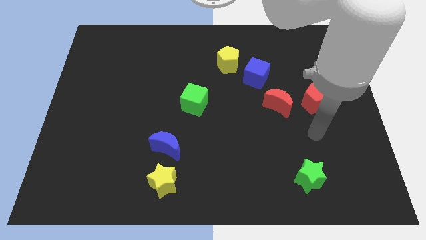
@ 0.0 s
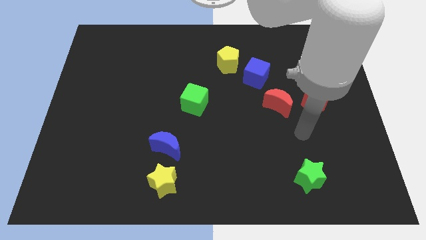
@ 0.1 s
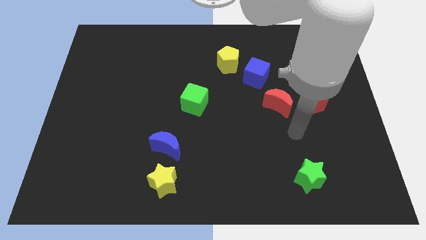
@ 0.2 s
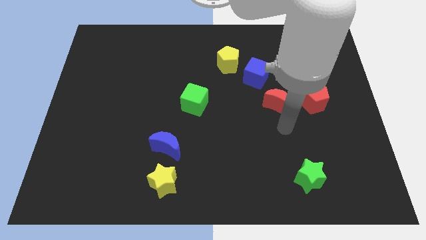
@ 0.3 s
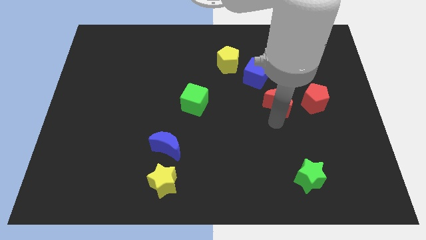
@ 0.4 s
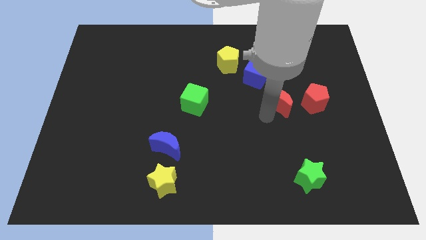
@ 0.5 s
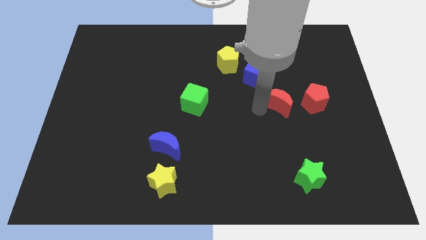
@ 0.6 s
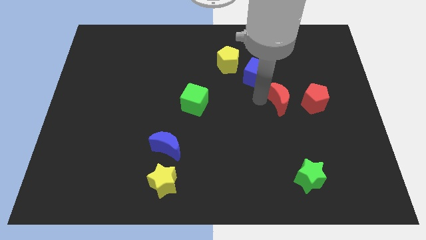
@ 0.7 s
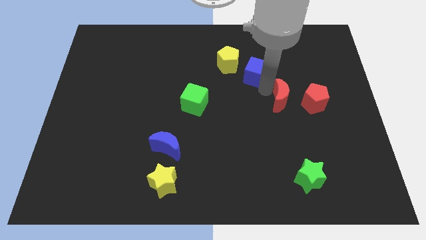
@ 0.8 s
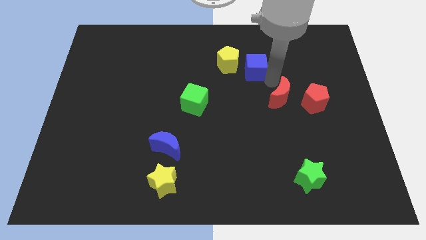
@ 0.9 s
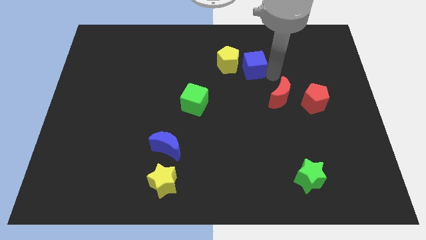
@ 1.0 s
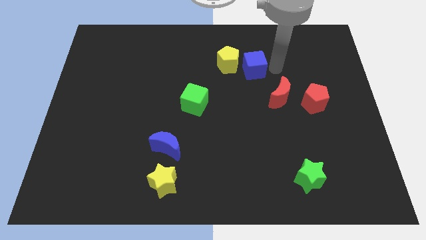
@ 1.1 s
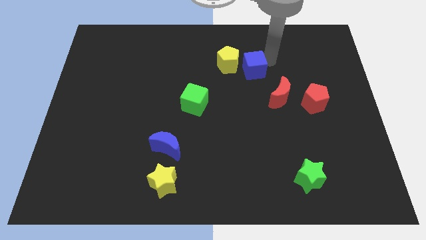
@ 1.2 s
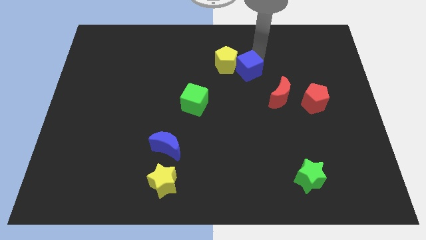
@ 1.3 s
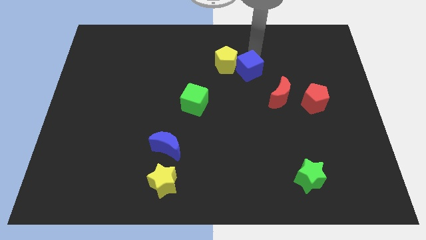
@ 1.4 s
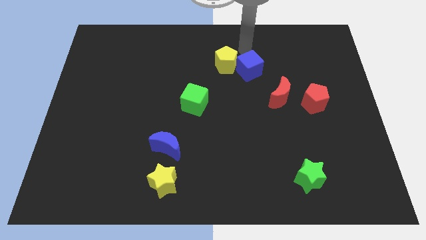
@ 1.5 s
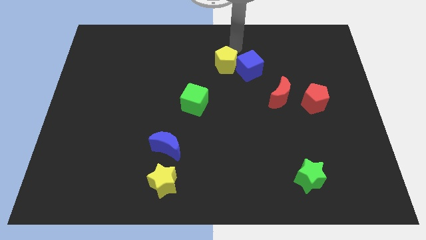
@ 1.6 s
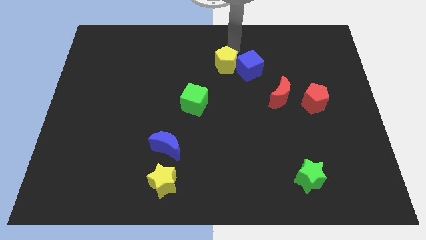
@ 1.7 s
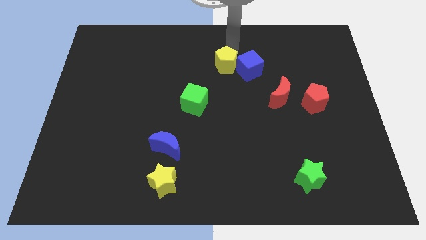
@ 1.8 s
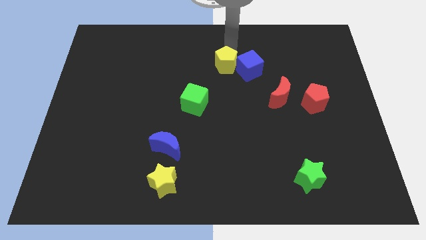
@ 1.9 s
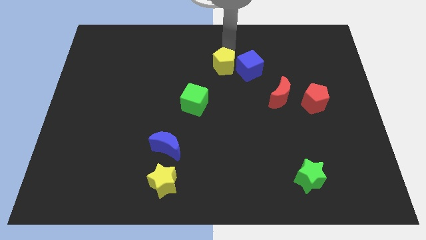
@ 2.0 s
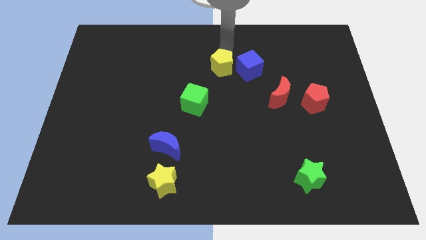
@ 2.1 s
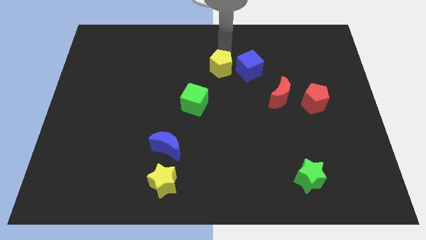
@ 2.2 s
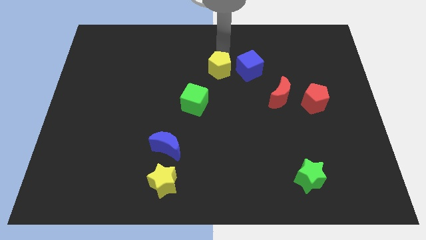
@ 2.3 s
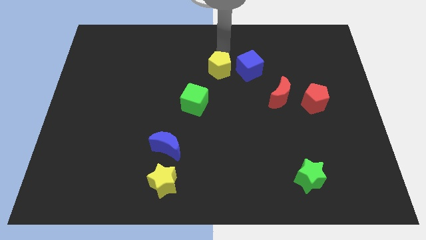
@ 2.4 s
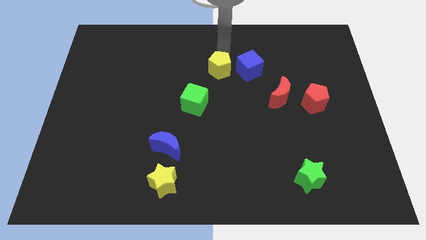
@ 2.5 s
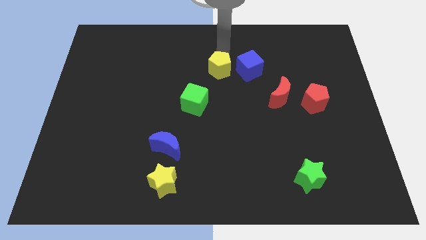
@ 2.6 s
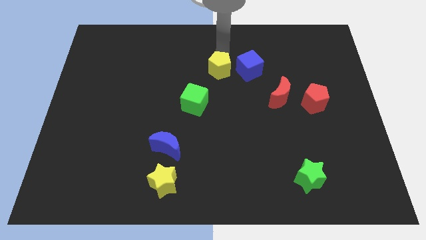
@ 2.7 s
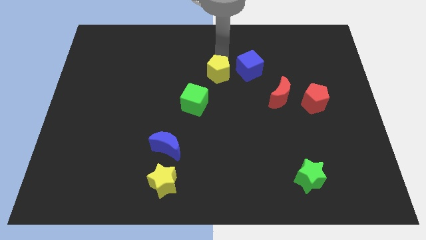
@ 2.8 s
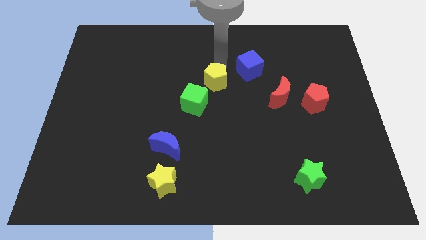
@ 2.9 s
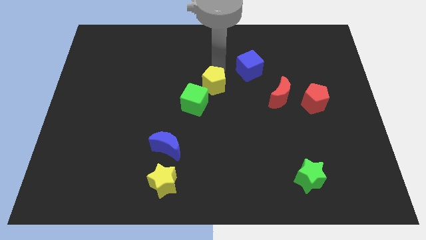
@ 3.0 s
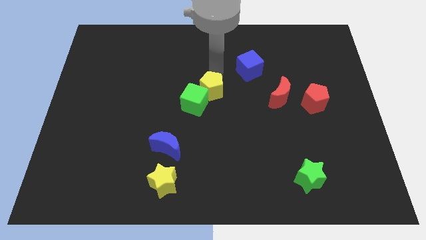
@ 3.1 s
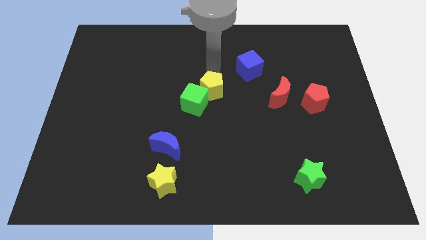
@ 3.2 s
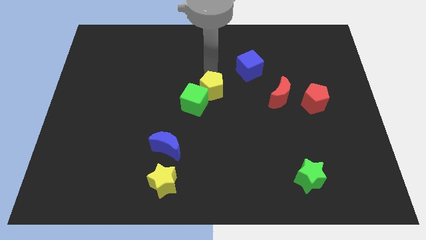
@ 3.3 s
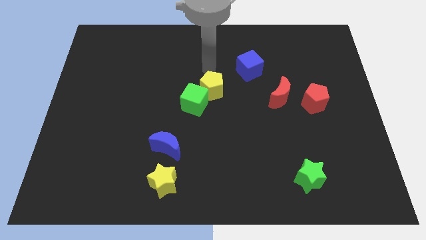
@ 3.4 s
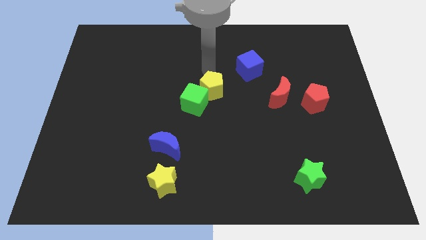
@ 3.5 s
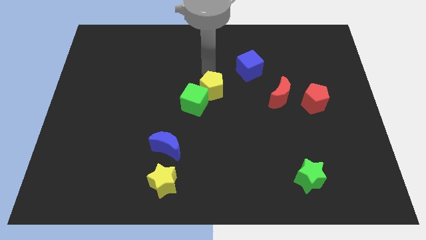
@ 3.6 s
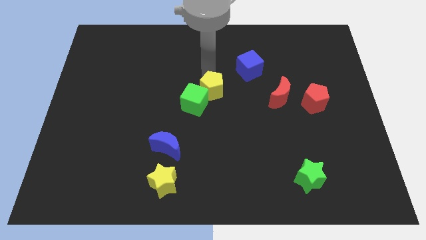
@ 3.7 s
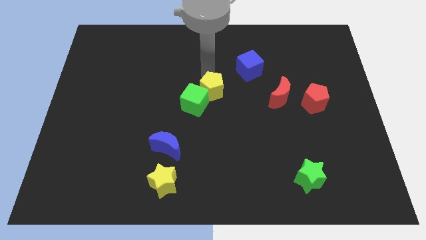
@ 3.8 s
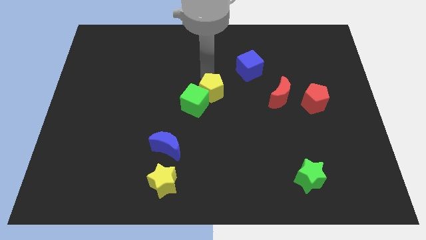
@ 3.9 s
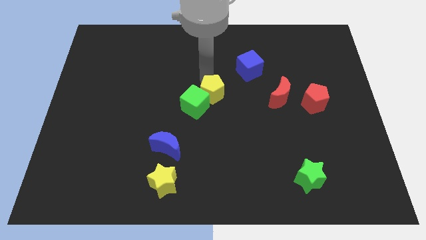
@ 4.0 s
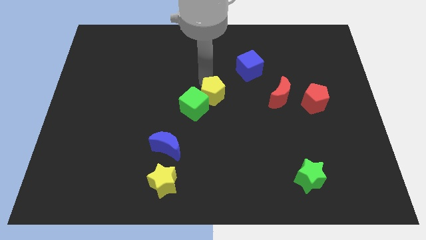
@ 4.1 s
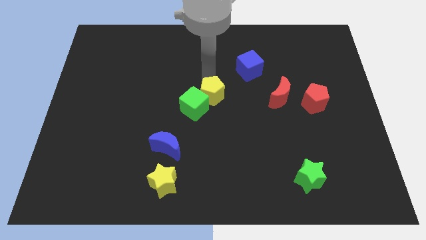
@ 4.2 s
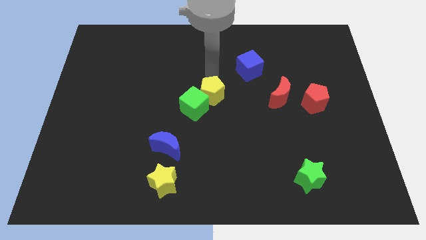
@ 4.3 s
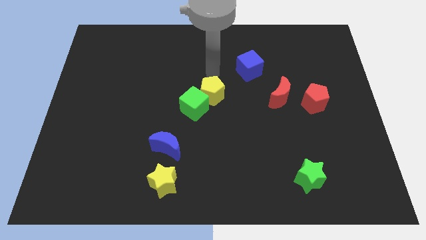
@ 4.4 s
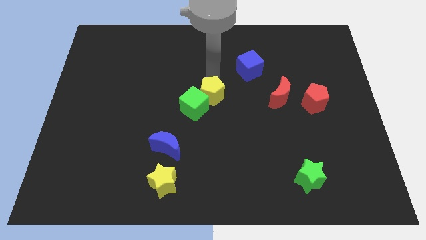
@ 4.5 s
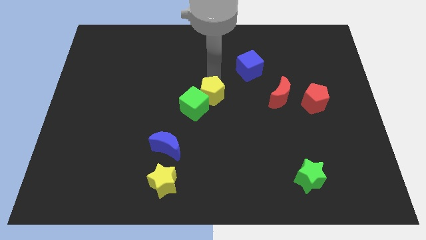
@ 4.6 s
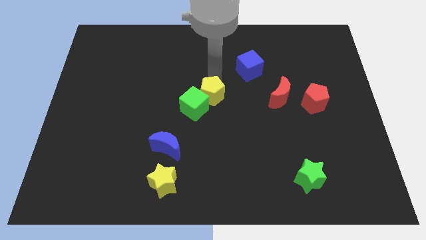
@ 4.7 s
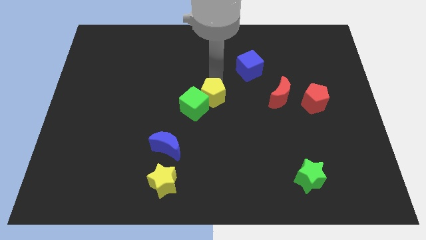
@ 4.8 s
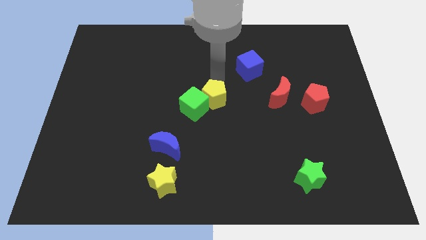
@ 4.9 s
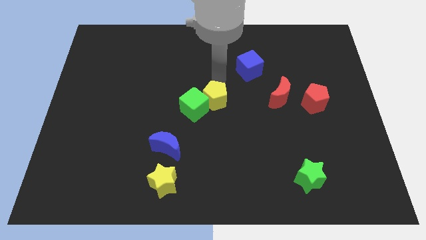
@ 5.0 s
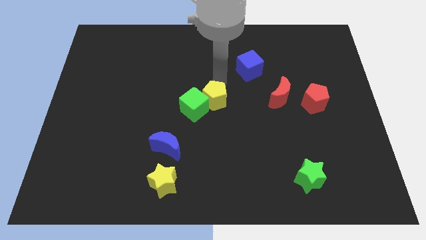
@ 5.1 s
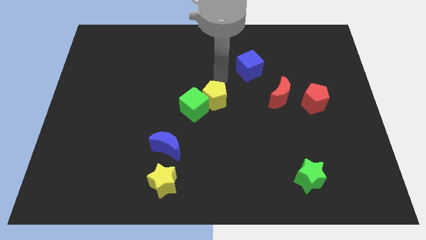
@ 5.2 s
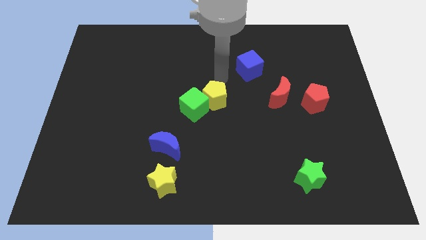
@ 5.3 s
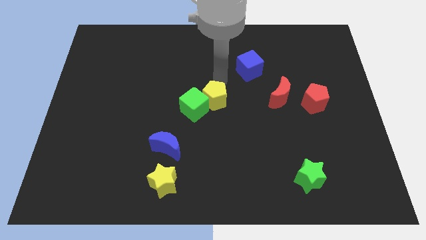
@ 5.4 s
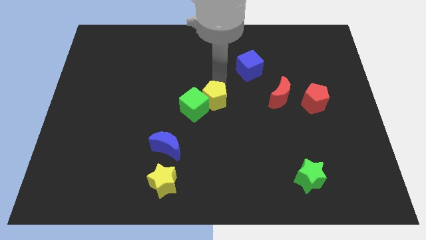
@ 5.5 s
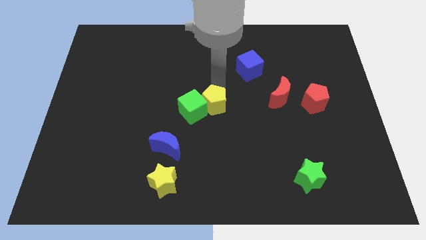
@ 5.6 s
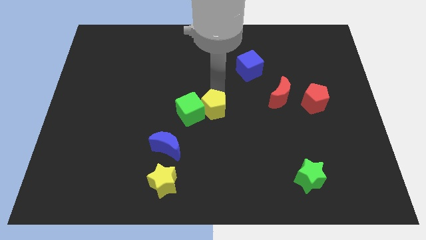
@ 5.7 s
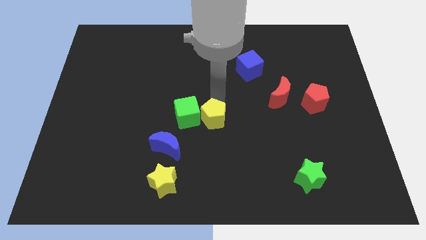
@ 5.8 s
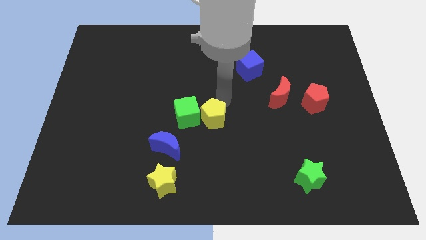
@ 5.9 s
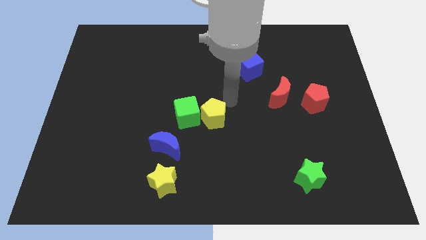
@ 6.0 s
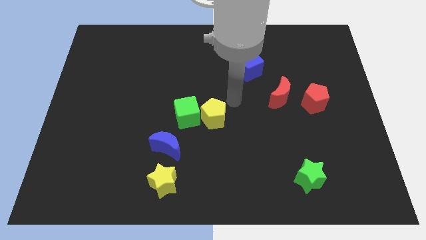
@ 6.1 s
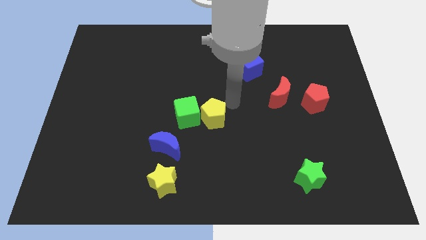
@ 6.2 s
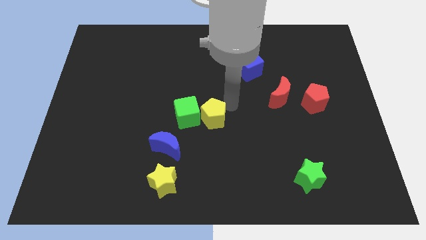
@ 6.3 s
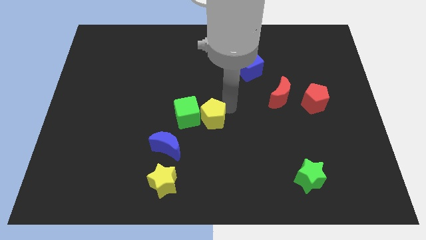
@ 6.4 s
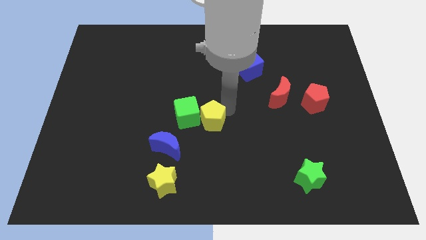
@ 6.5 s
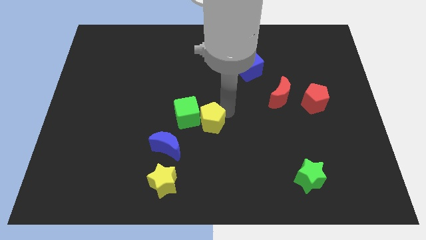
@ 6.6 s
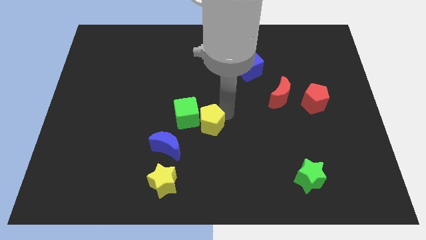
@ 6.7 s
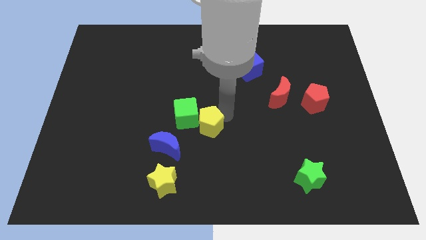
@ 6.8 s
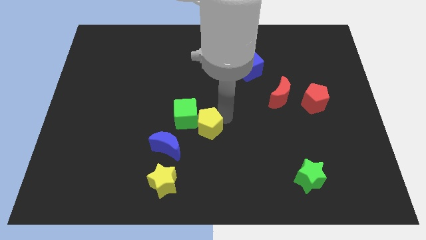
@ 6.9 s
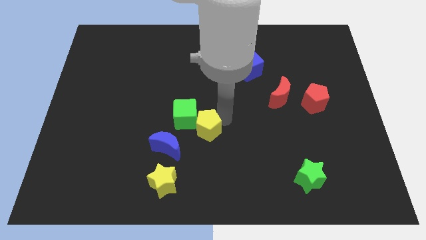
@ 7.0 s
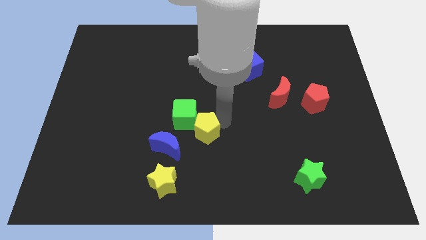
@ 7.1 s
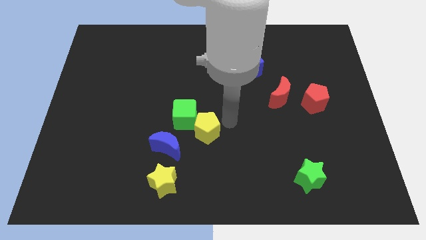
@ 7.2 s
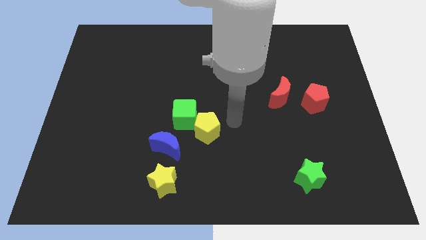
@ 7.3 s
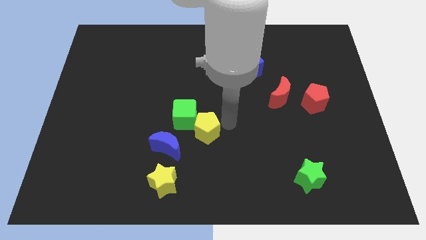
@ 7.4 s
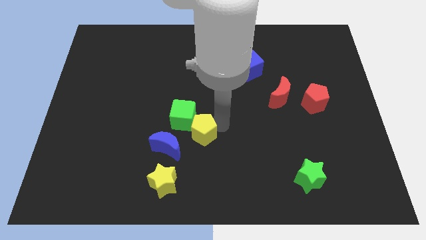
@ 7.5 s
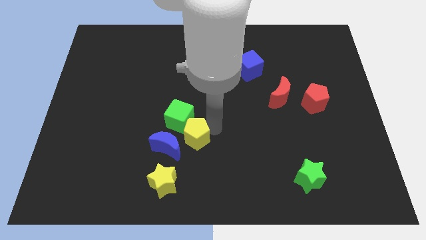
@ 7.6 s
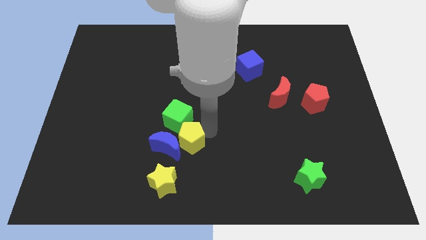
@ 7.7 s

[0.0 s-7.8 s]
slide the yellow pentagon next to the blue moon
